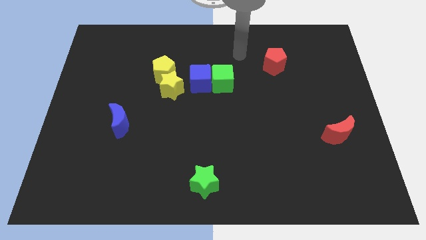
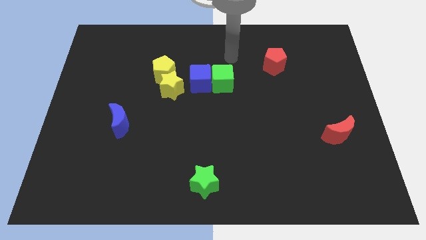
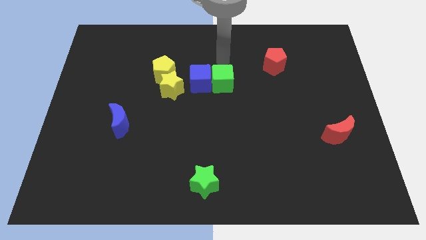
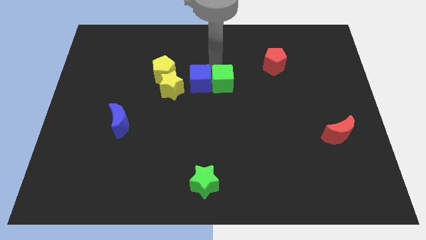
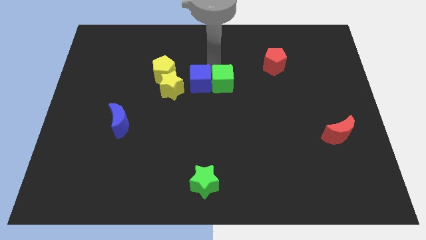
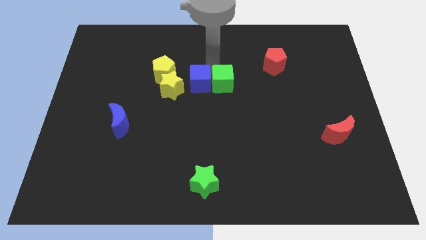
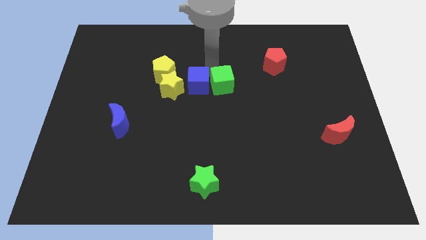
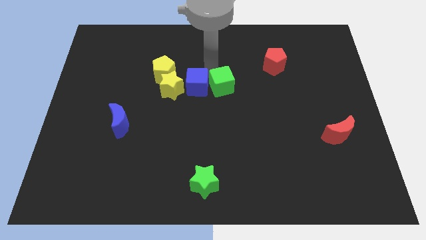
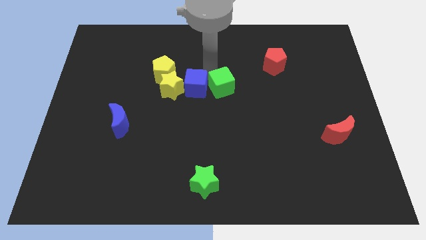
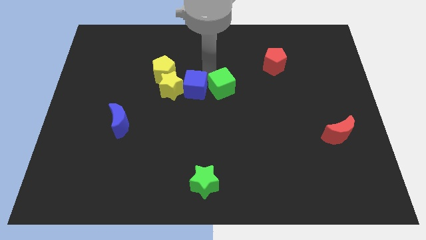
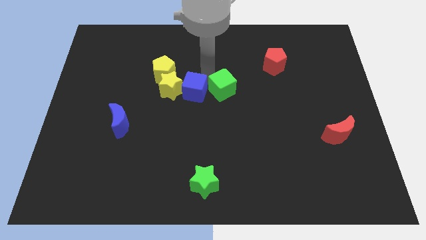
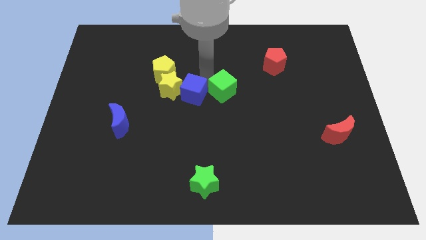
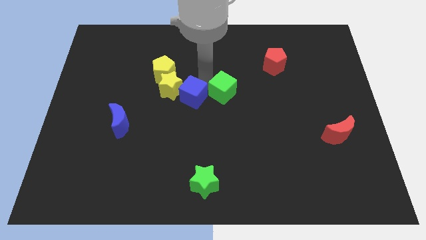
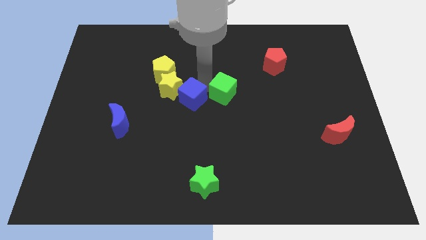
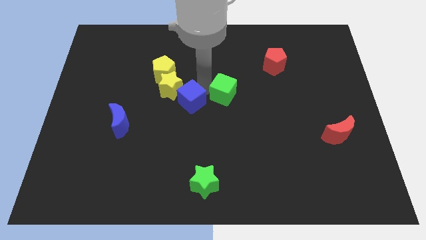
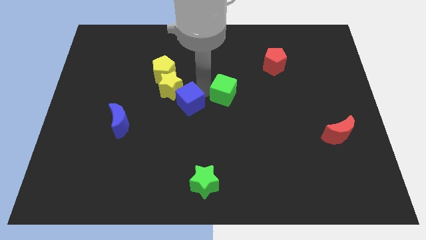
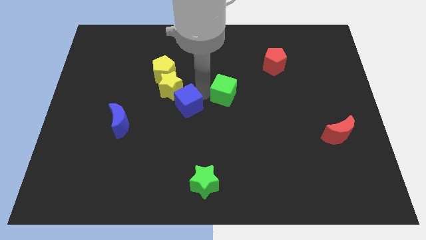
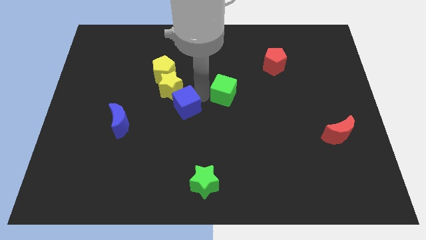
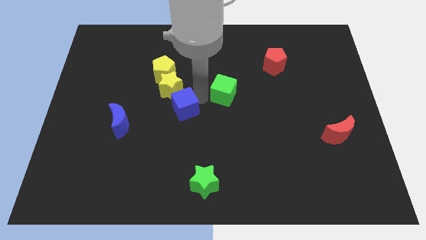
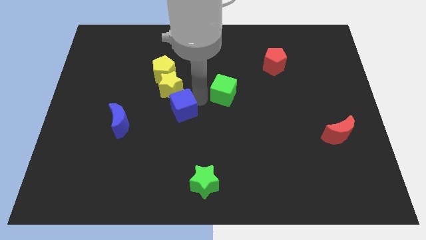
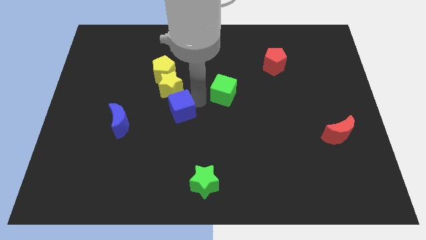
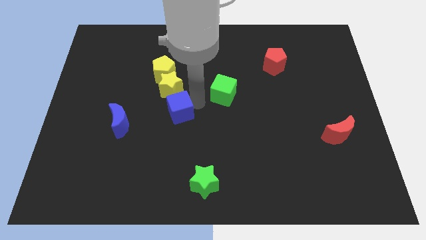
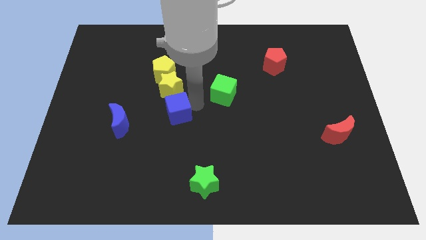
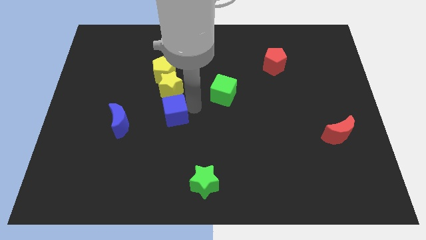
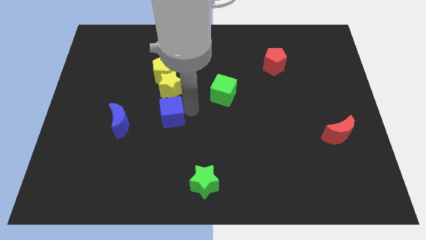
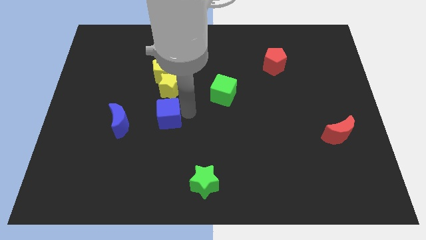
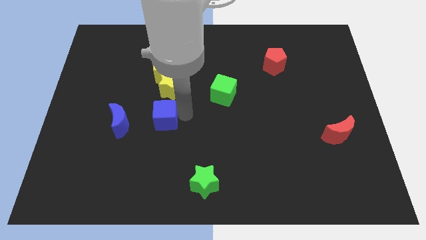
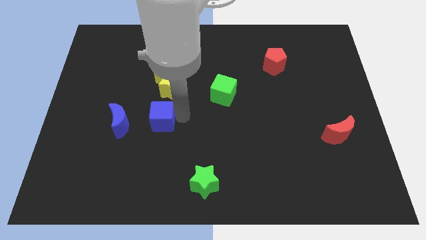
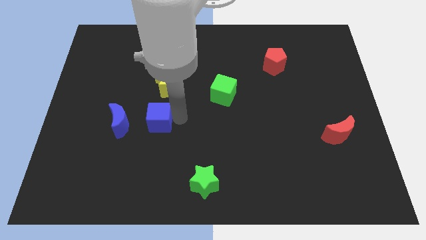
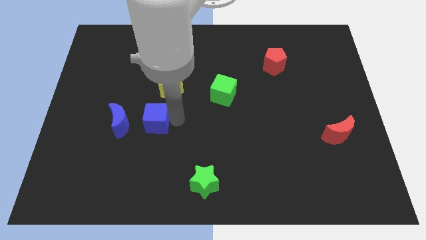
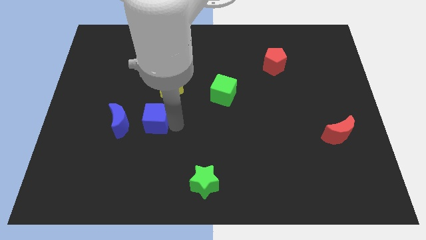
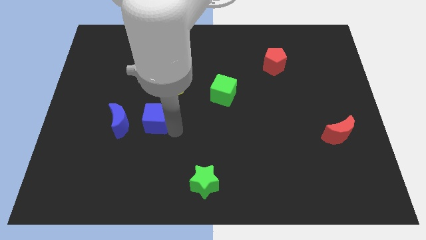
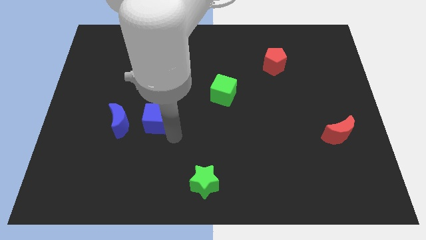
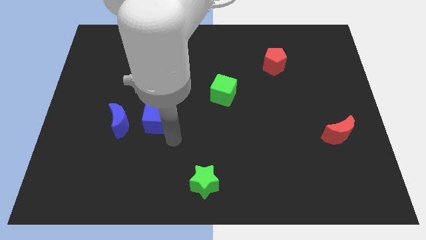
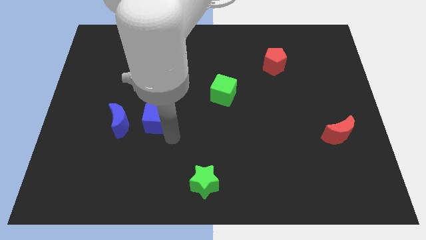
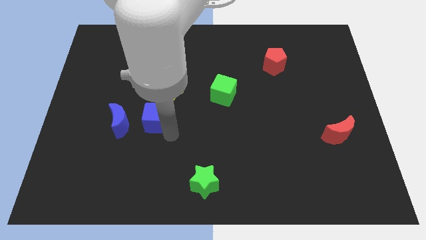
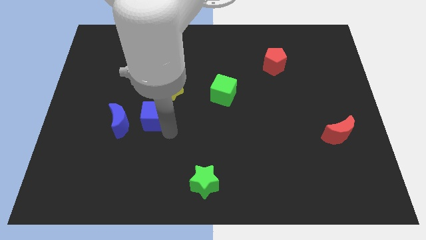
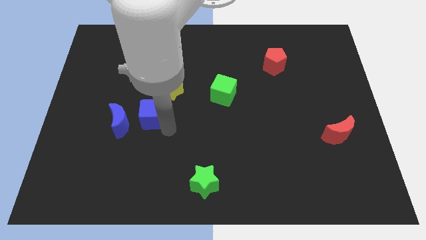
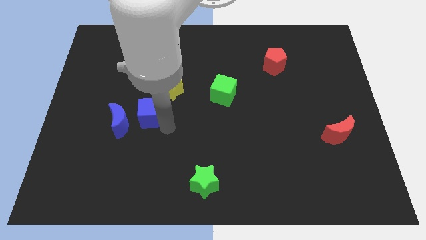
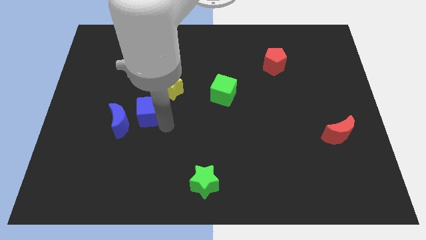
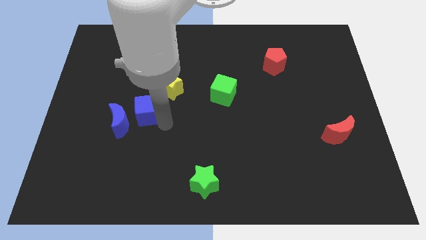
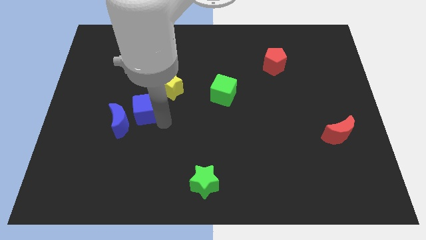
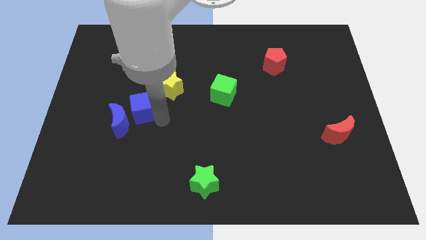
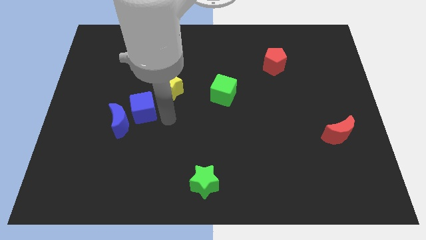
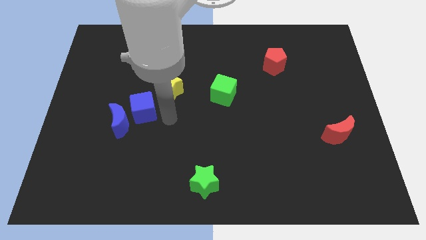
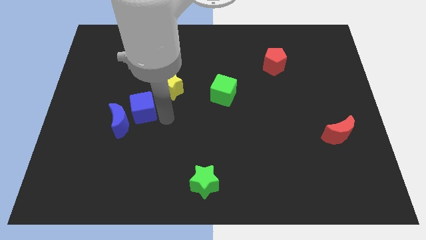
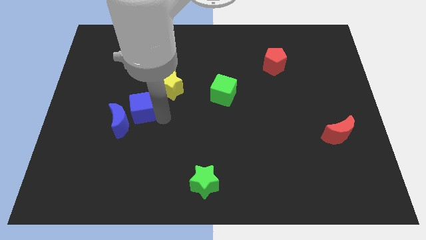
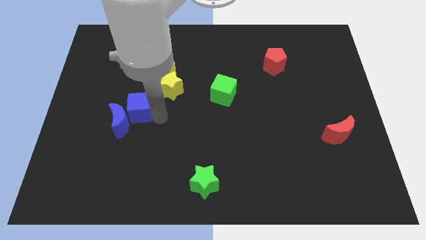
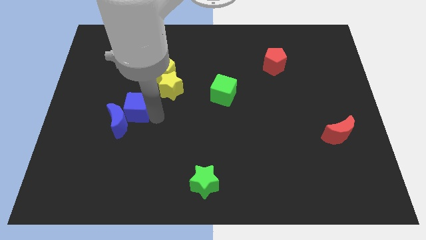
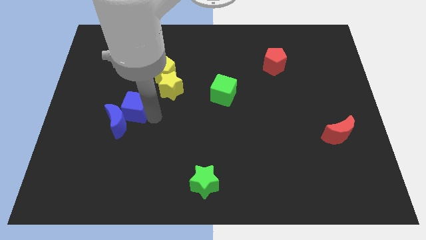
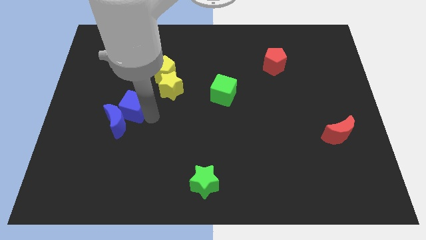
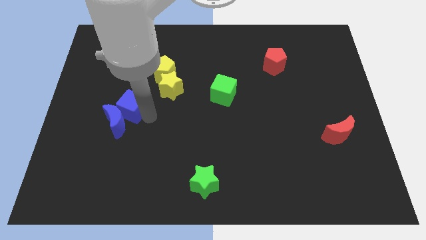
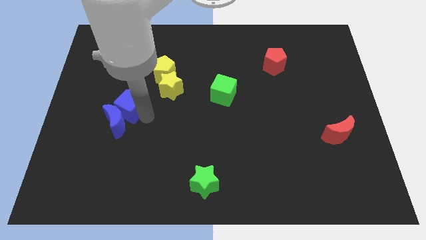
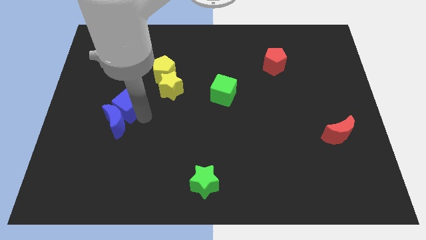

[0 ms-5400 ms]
push the blue cube to the top left of the blue moon

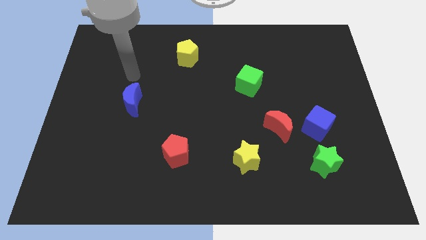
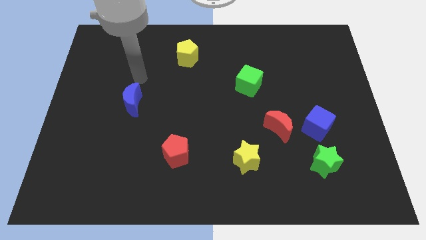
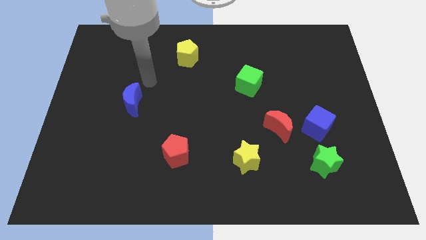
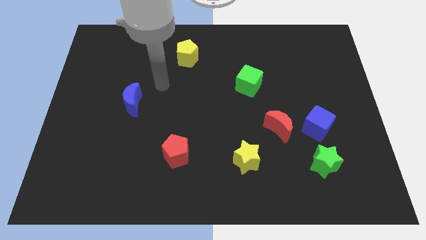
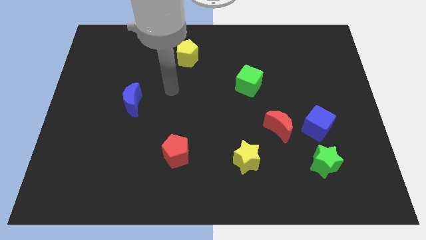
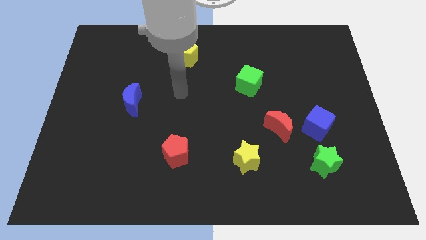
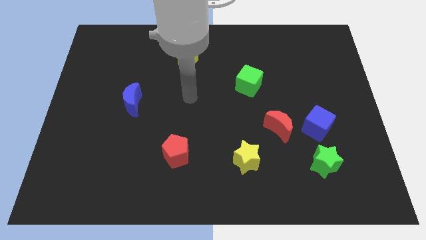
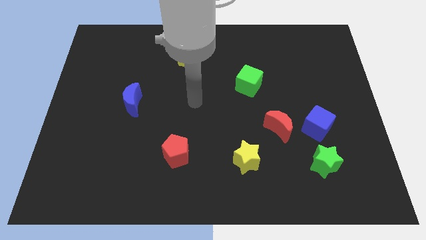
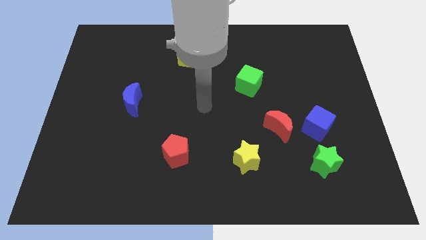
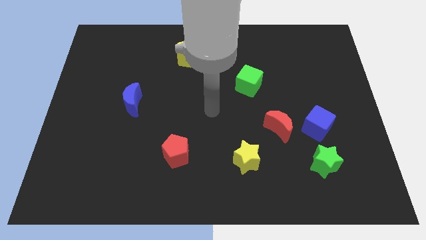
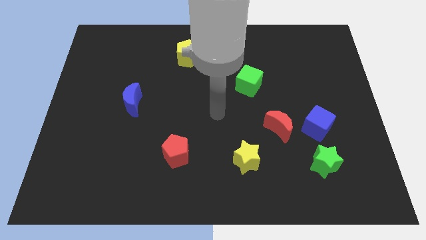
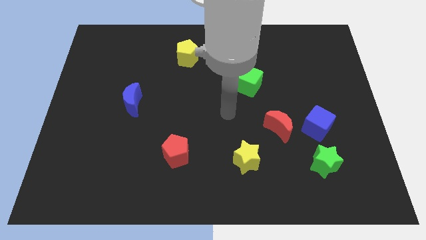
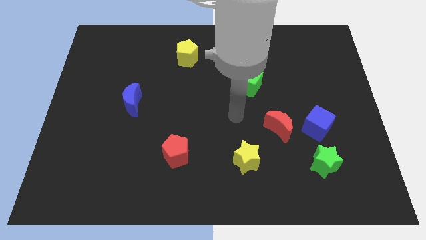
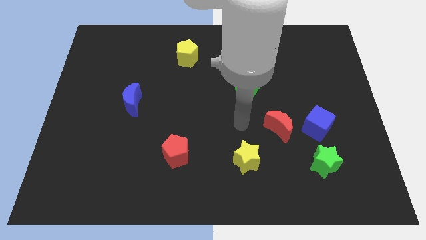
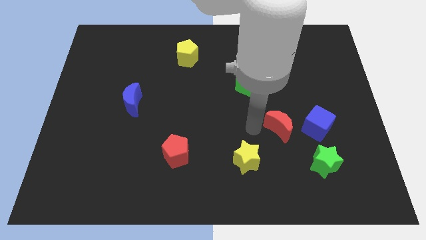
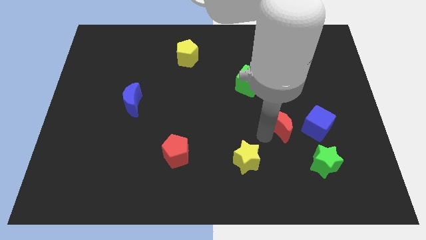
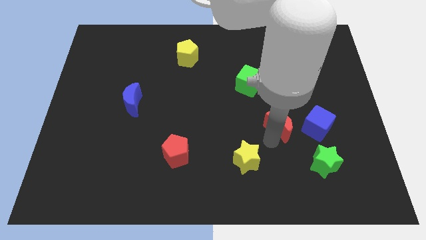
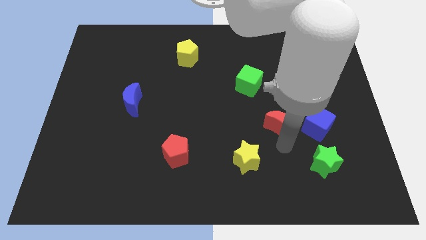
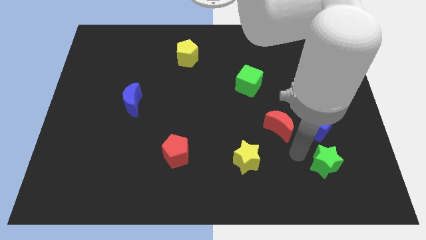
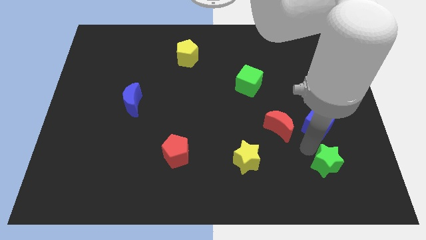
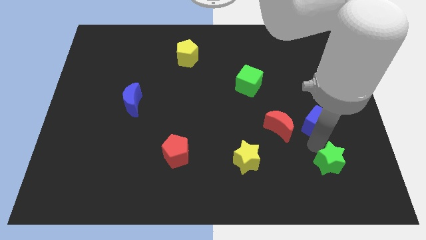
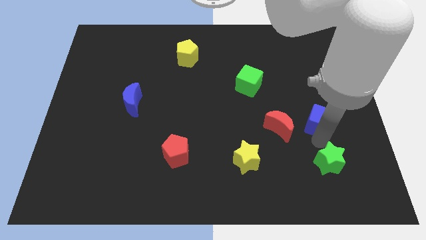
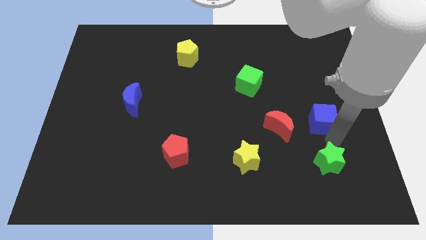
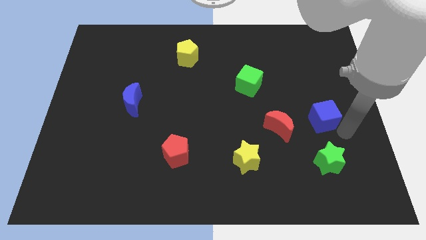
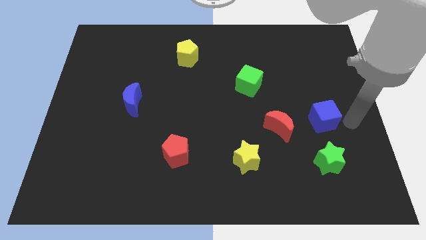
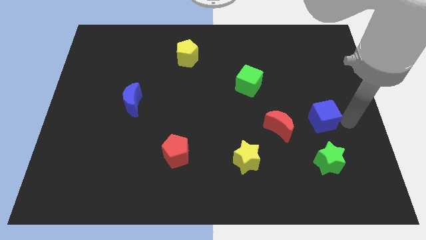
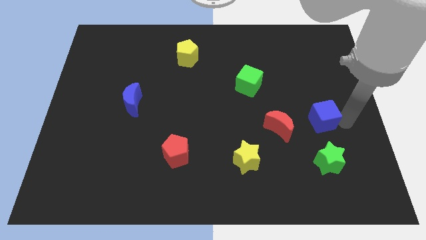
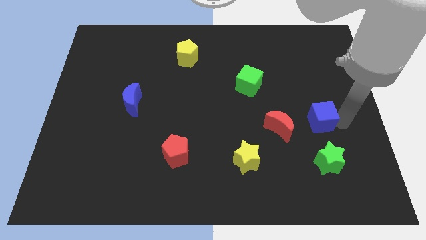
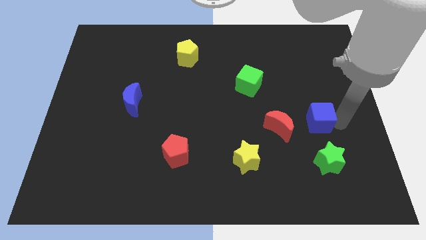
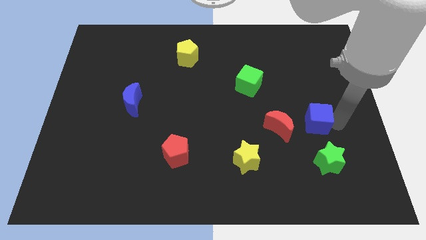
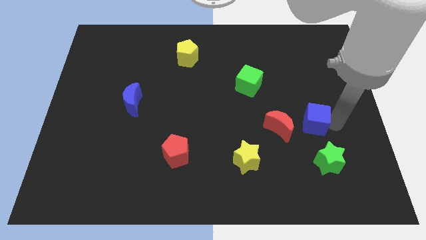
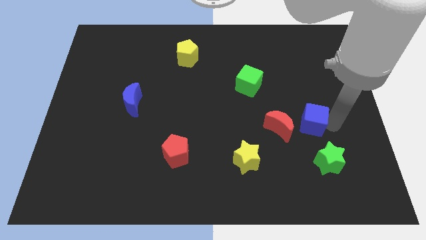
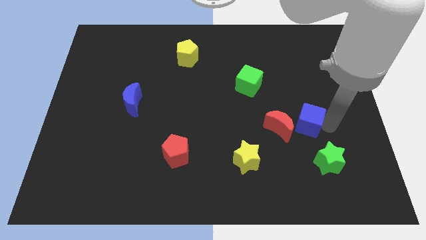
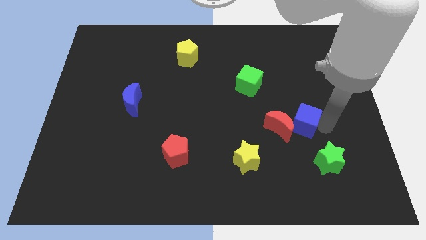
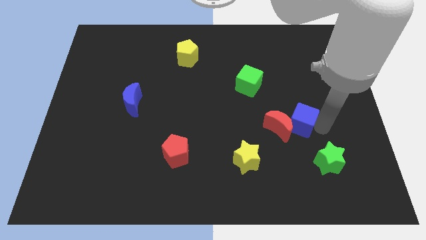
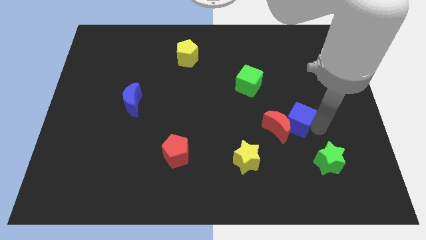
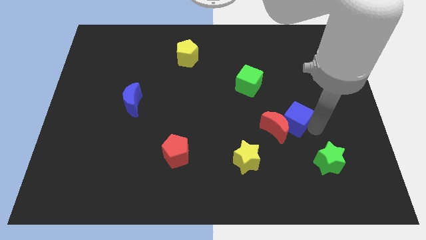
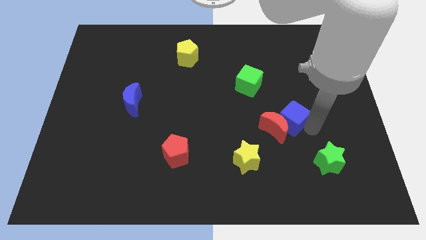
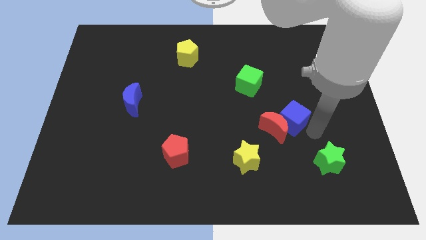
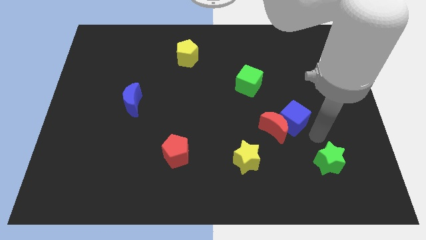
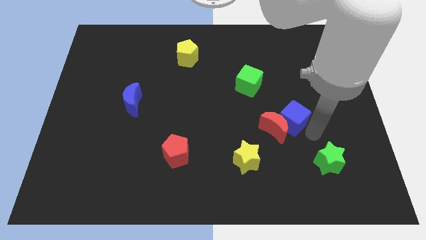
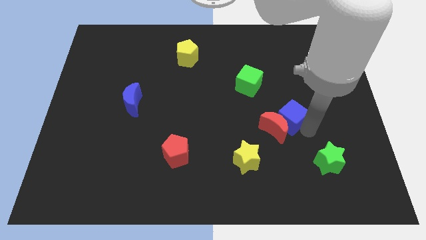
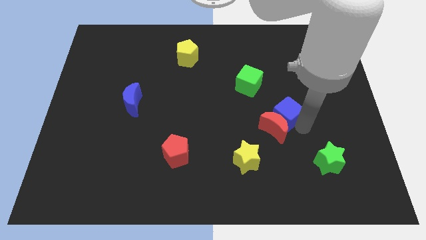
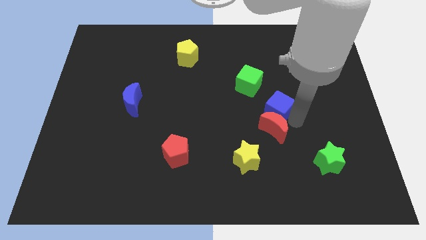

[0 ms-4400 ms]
put the blue cube diagonally up and to the left of the red moon
